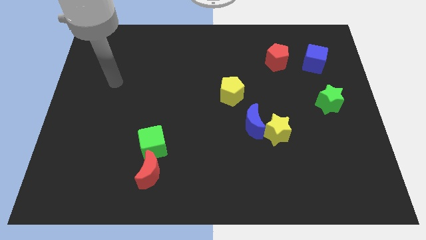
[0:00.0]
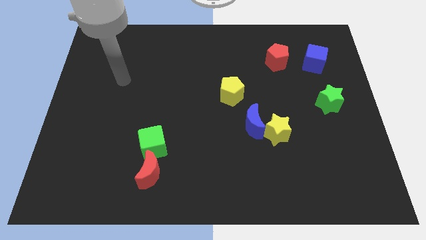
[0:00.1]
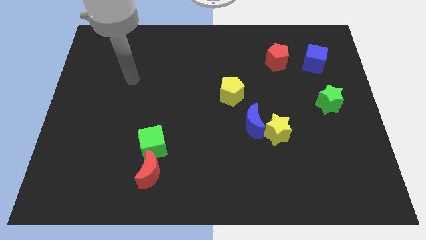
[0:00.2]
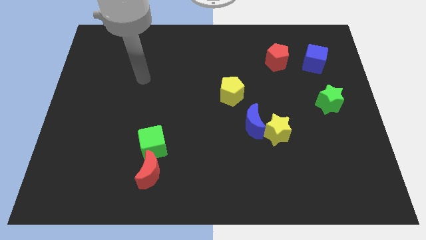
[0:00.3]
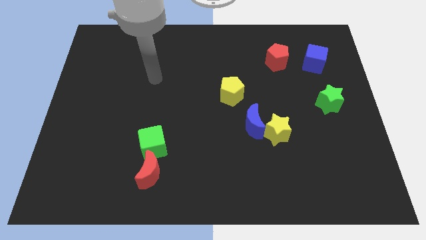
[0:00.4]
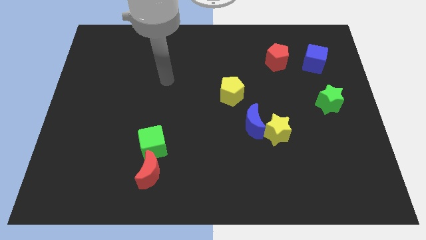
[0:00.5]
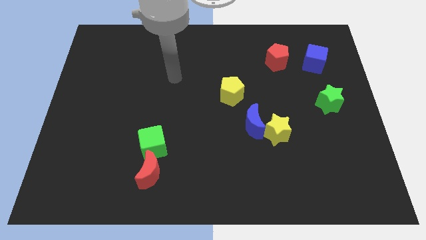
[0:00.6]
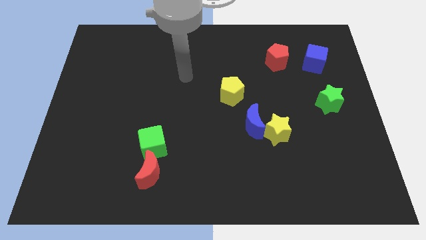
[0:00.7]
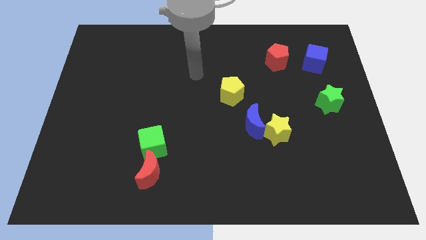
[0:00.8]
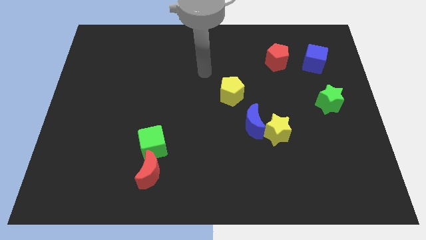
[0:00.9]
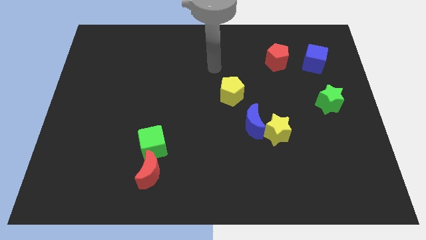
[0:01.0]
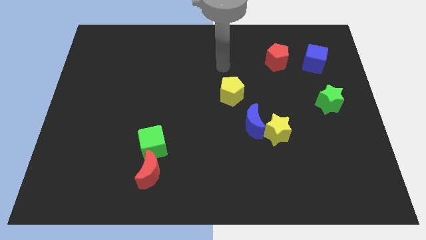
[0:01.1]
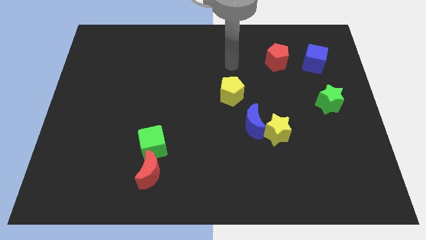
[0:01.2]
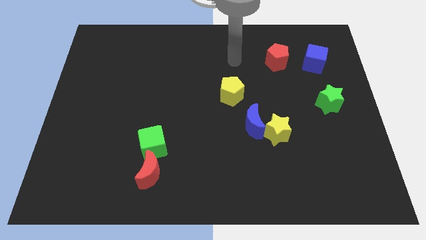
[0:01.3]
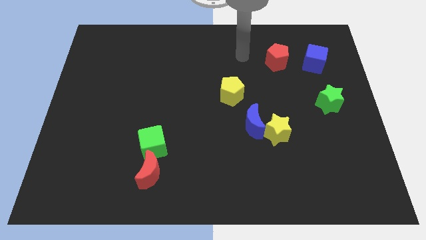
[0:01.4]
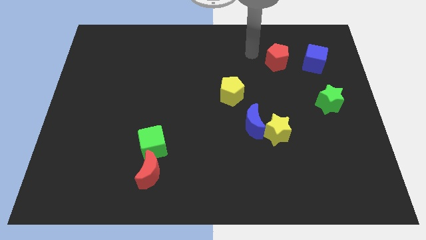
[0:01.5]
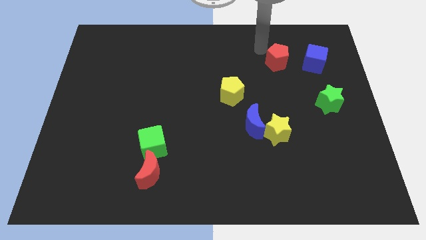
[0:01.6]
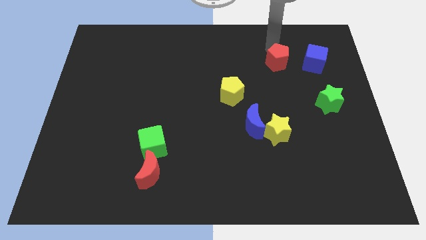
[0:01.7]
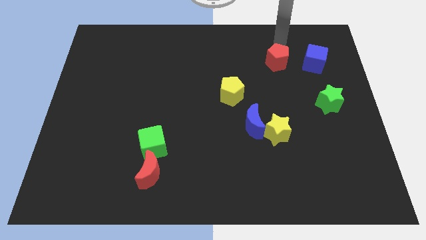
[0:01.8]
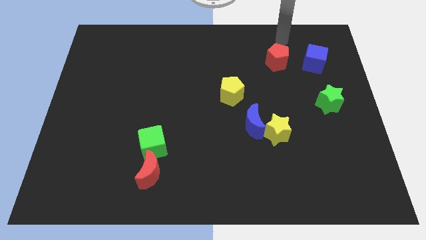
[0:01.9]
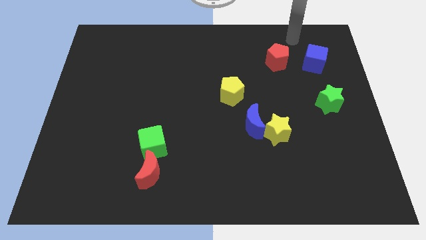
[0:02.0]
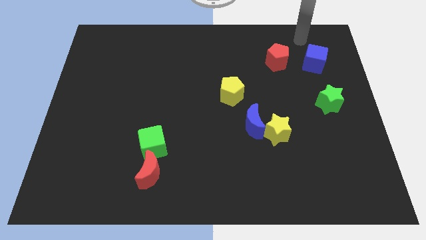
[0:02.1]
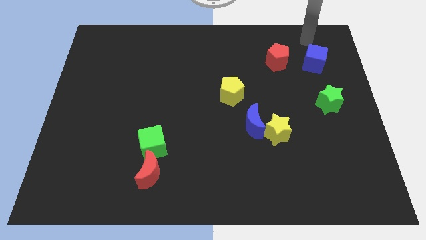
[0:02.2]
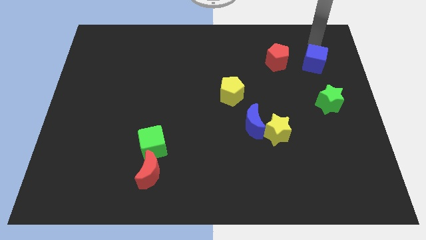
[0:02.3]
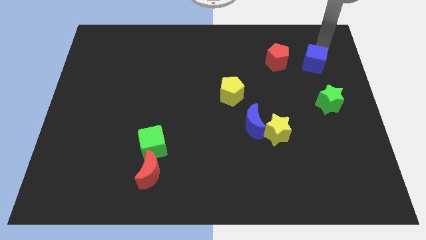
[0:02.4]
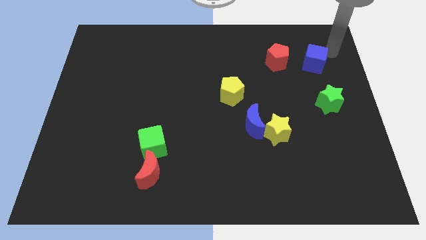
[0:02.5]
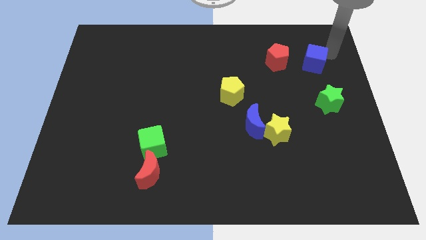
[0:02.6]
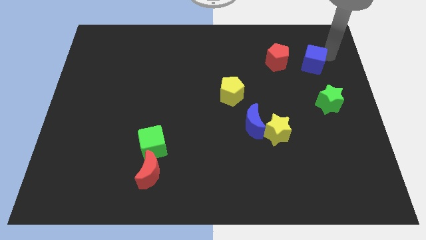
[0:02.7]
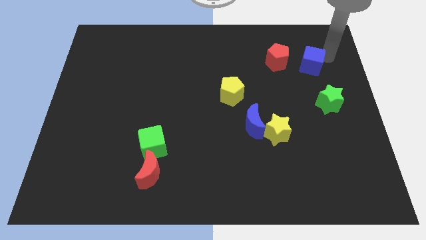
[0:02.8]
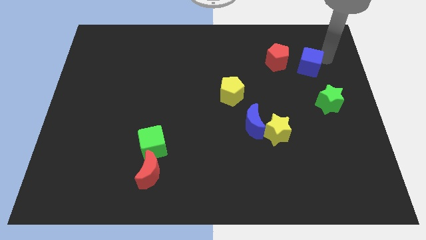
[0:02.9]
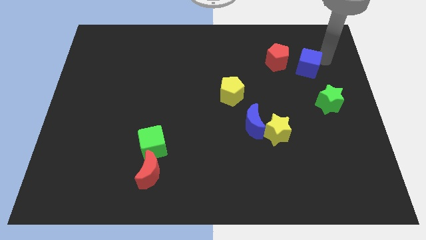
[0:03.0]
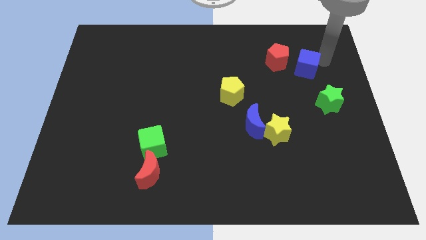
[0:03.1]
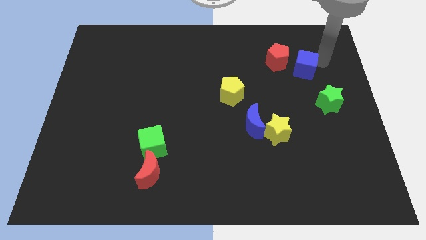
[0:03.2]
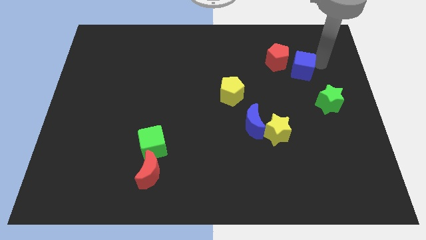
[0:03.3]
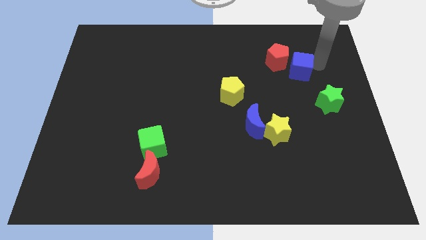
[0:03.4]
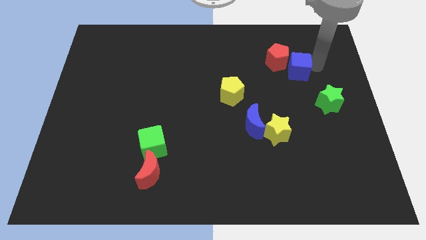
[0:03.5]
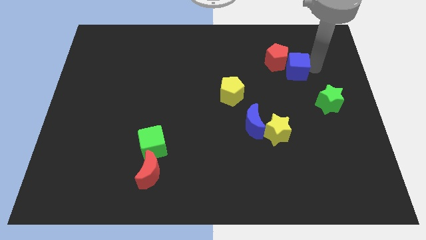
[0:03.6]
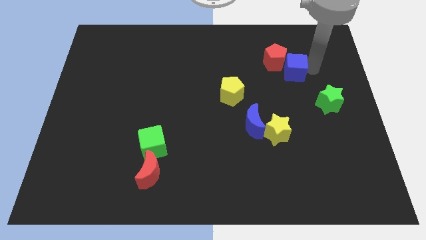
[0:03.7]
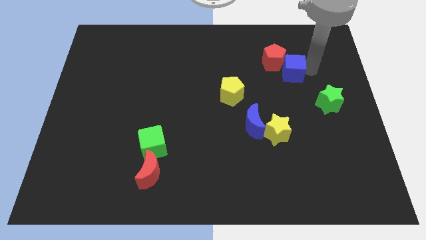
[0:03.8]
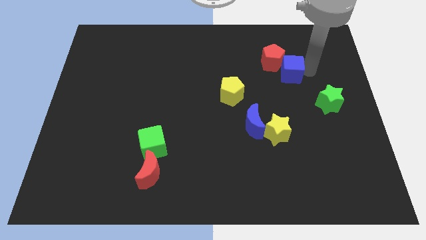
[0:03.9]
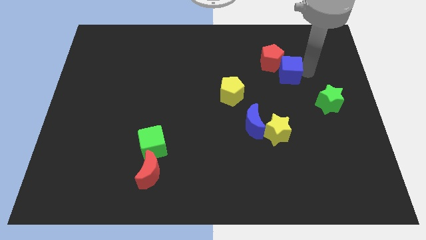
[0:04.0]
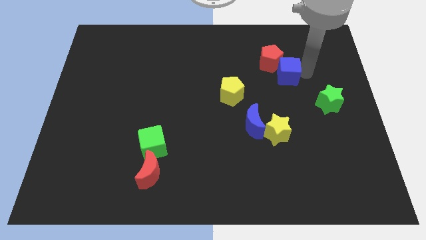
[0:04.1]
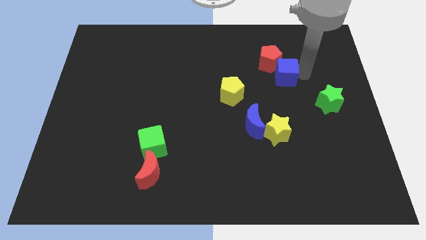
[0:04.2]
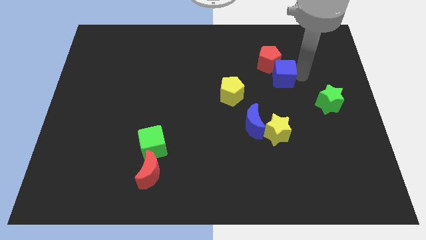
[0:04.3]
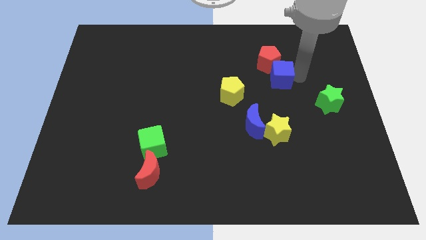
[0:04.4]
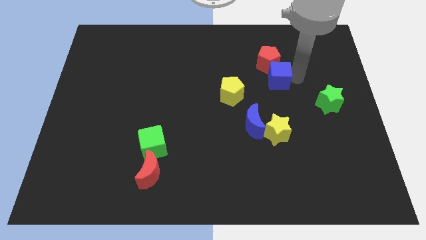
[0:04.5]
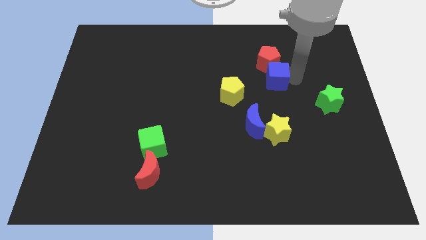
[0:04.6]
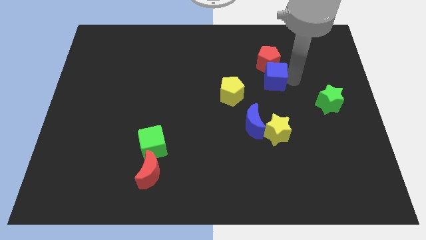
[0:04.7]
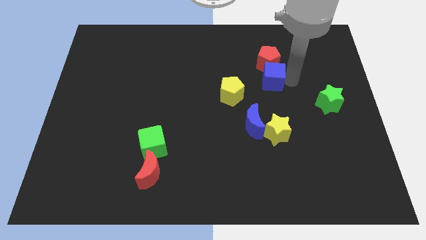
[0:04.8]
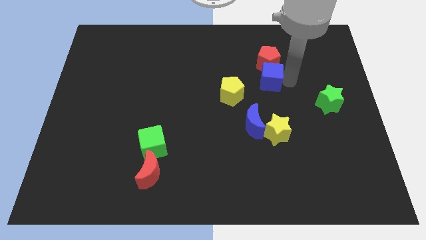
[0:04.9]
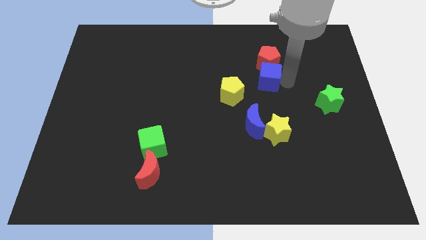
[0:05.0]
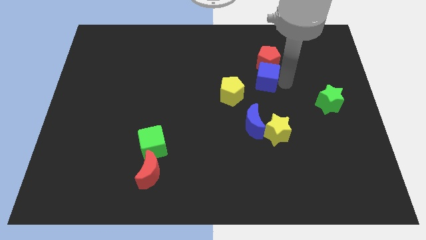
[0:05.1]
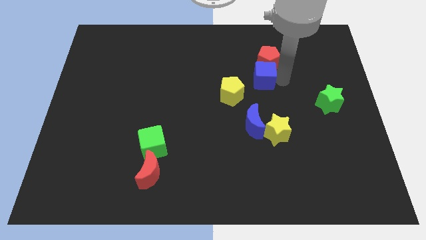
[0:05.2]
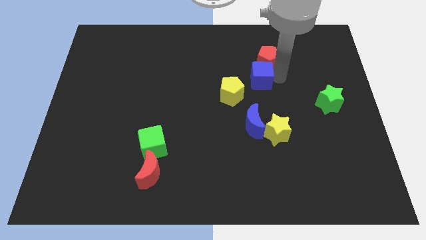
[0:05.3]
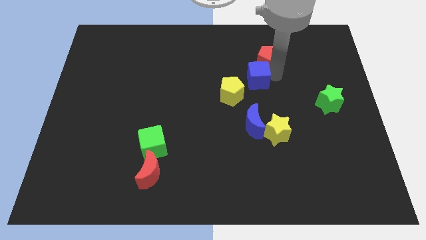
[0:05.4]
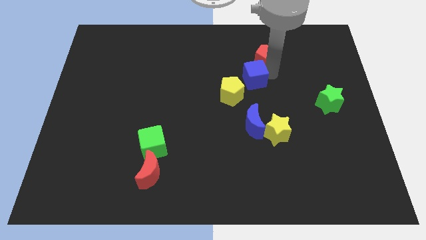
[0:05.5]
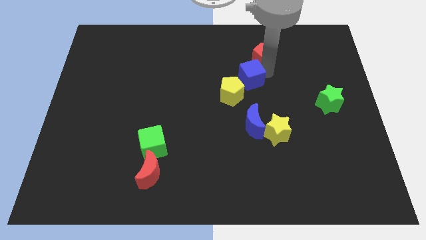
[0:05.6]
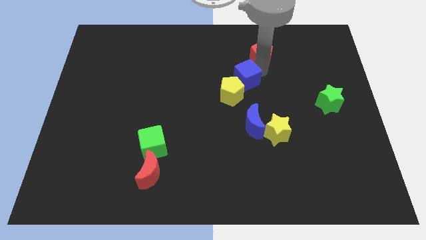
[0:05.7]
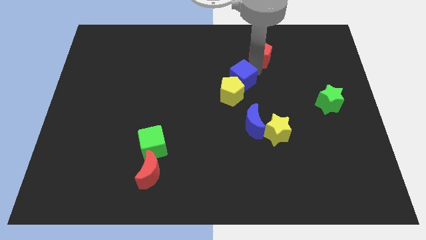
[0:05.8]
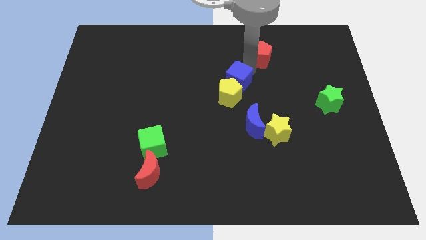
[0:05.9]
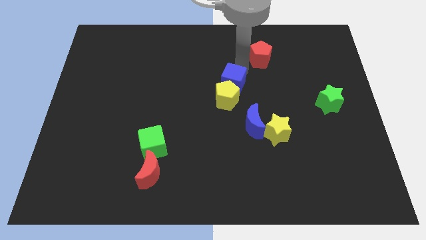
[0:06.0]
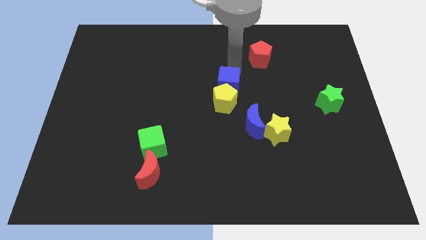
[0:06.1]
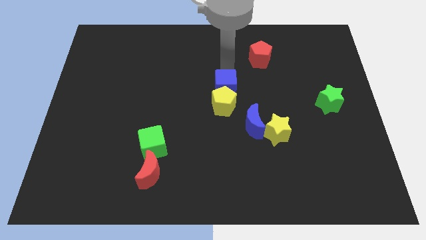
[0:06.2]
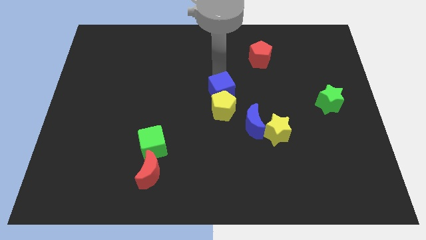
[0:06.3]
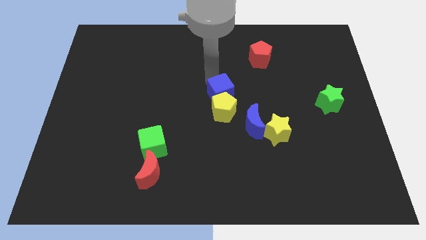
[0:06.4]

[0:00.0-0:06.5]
push the blue cube diagonally downwards and to the left

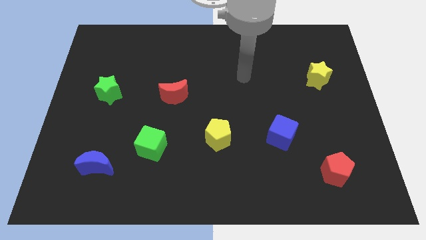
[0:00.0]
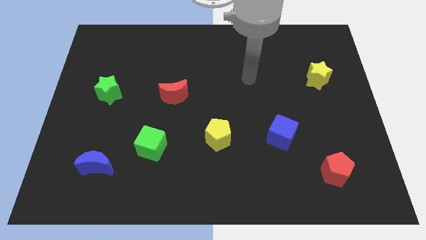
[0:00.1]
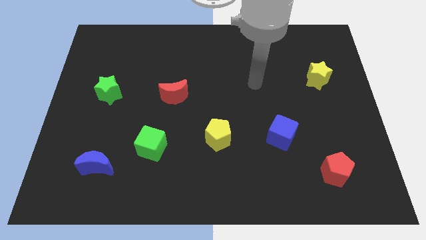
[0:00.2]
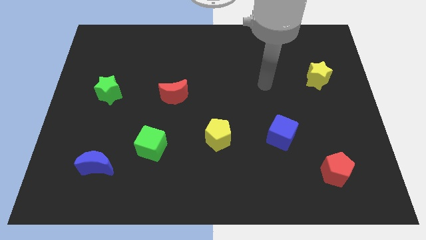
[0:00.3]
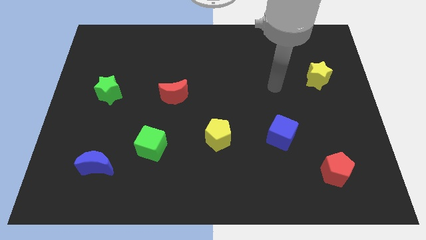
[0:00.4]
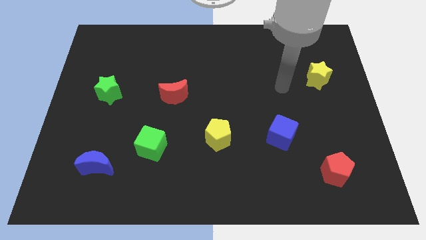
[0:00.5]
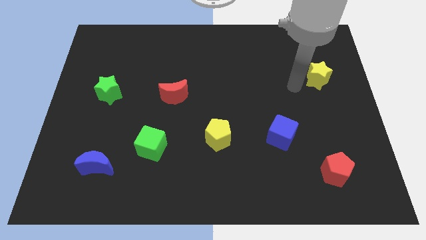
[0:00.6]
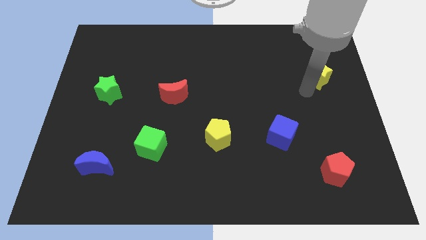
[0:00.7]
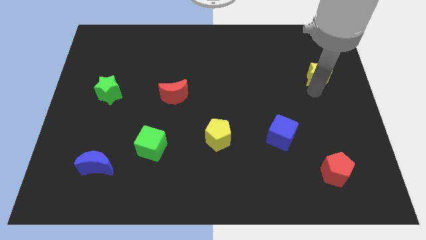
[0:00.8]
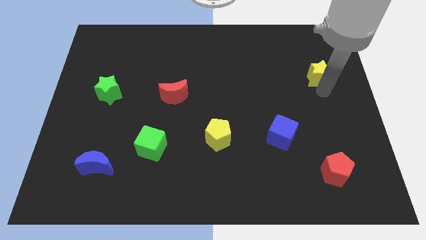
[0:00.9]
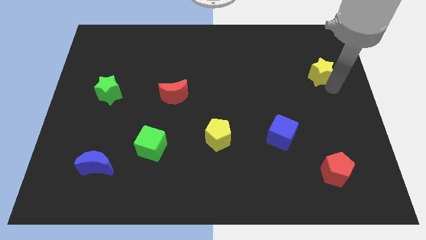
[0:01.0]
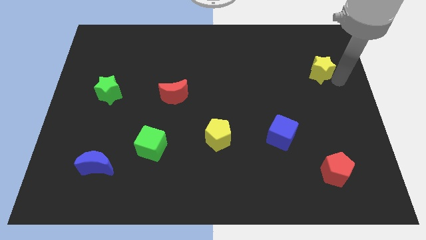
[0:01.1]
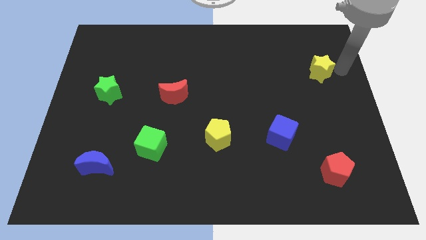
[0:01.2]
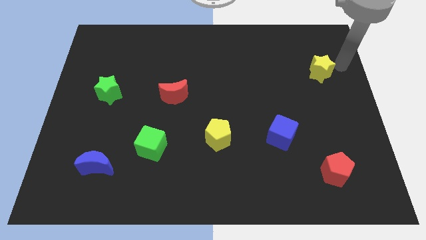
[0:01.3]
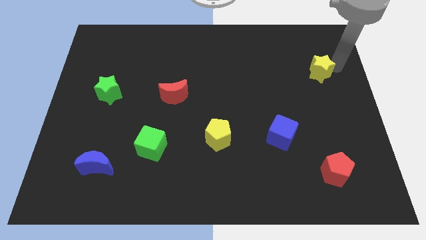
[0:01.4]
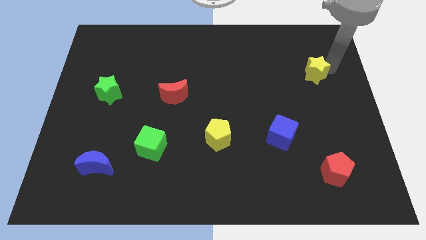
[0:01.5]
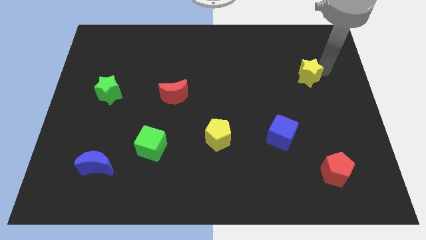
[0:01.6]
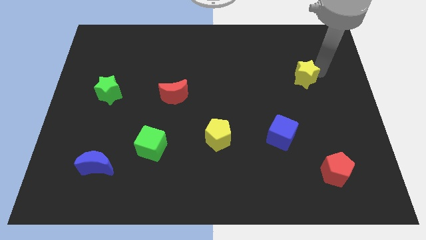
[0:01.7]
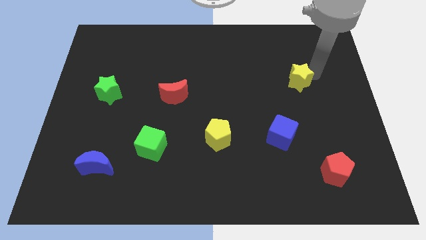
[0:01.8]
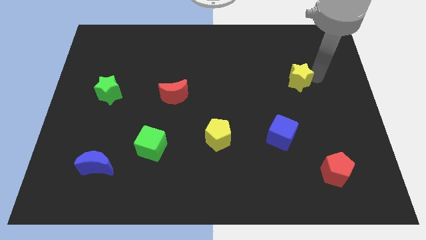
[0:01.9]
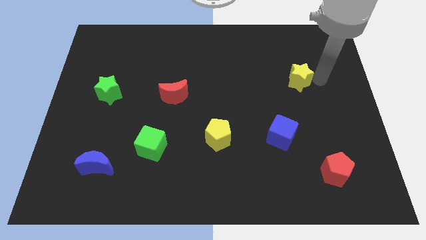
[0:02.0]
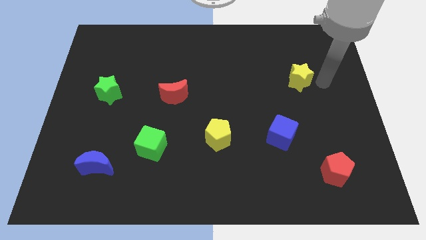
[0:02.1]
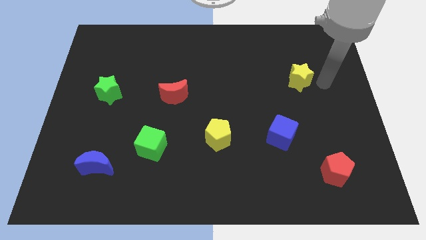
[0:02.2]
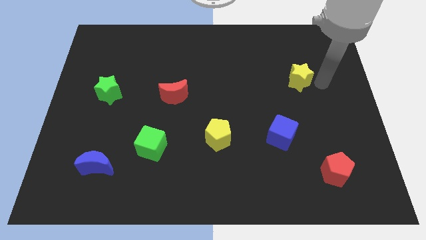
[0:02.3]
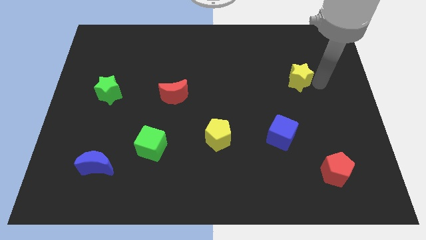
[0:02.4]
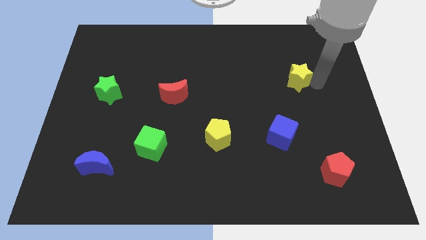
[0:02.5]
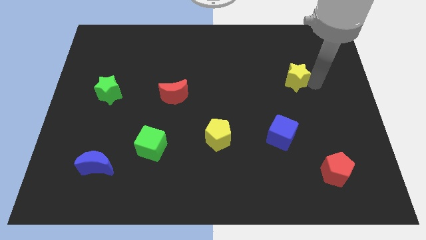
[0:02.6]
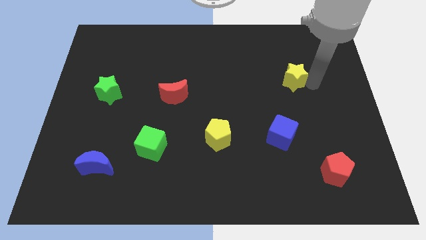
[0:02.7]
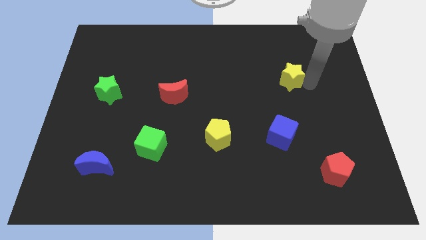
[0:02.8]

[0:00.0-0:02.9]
slide the yellow star to the left slightly
